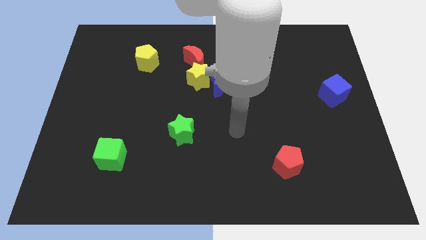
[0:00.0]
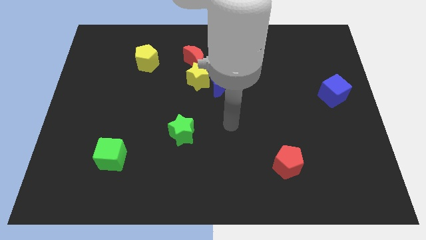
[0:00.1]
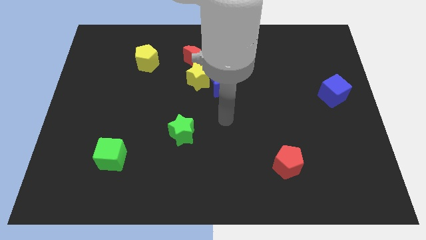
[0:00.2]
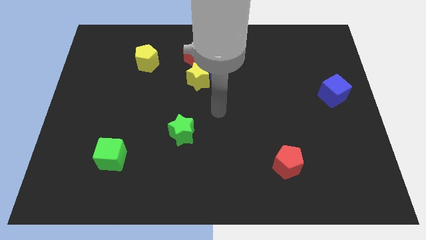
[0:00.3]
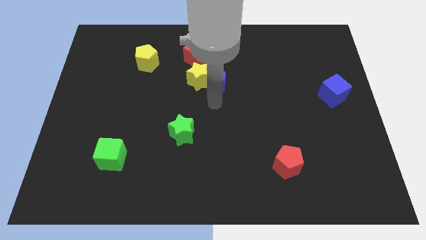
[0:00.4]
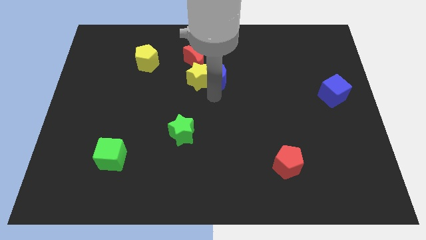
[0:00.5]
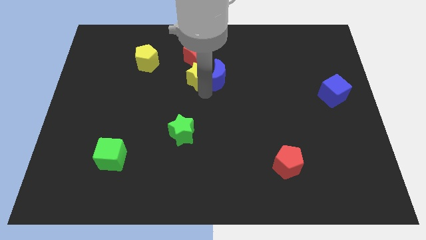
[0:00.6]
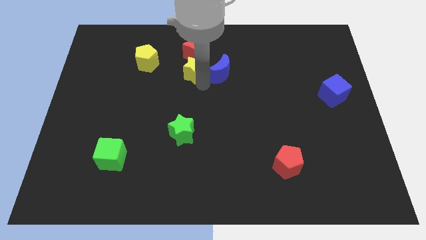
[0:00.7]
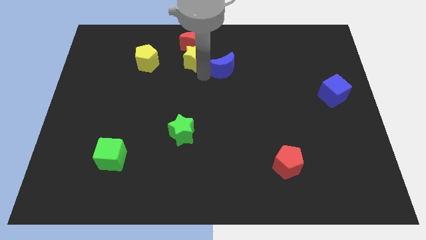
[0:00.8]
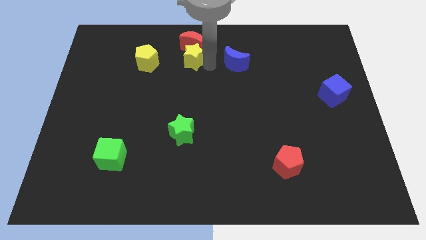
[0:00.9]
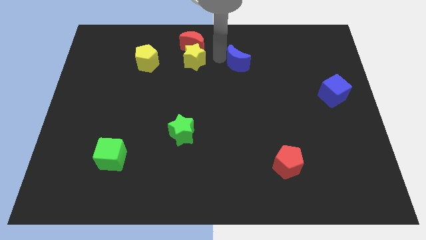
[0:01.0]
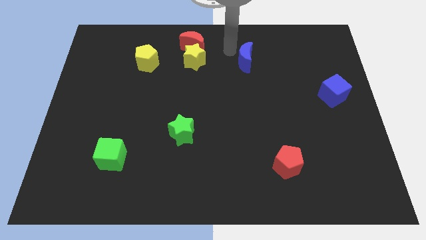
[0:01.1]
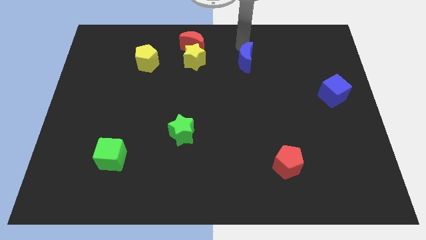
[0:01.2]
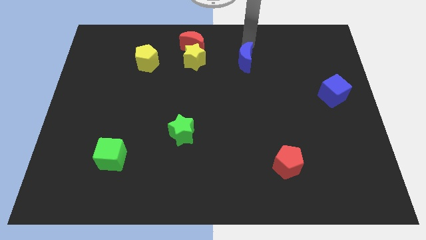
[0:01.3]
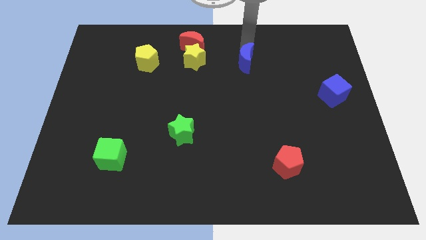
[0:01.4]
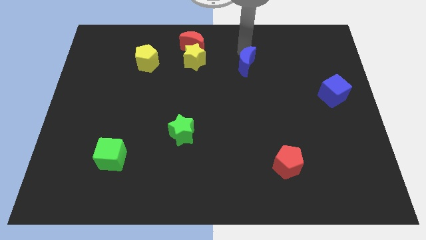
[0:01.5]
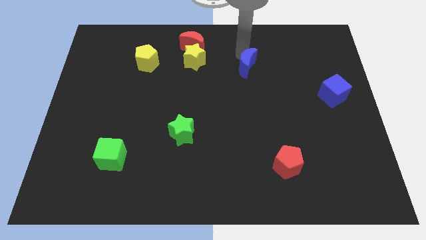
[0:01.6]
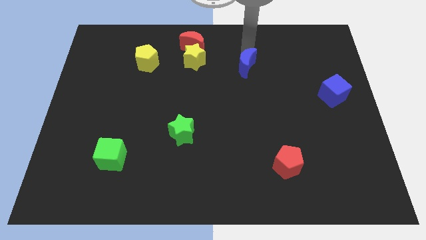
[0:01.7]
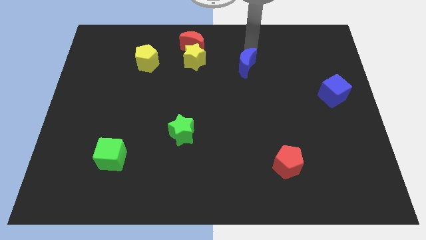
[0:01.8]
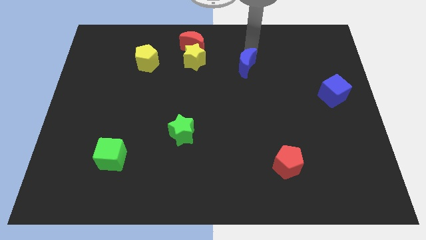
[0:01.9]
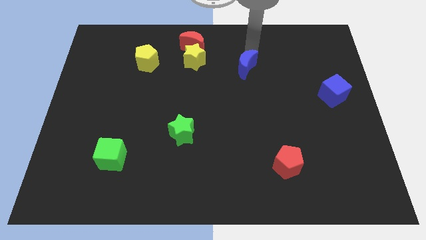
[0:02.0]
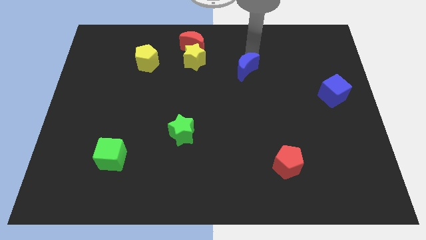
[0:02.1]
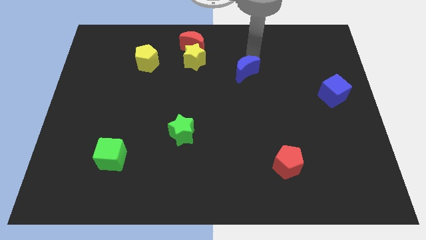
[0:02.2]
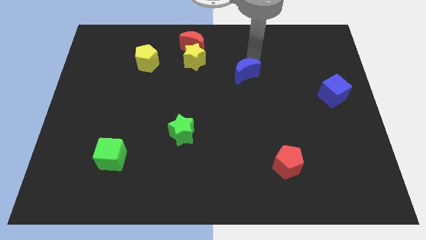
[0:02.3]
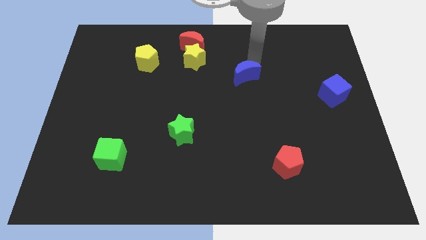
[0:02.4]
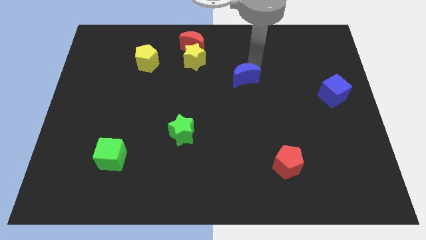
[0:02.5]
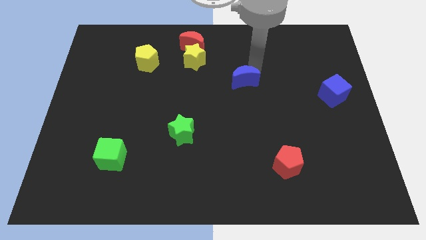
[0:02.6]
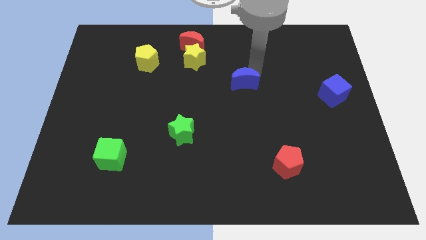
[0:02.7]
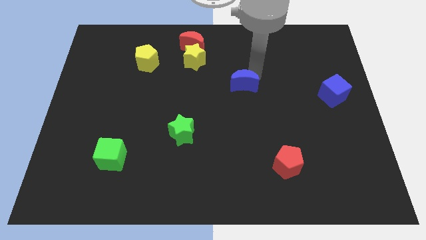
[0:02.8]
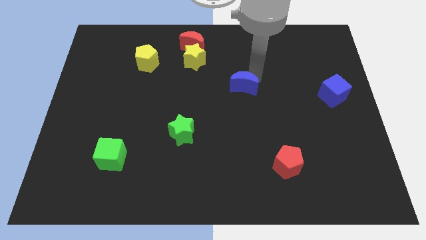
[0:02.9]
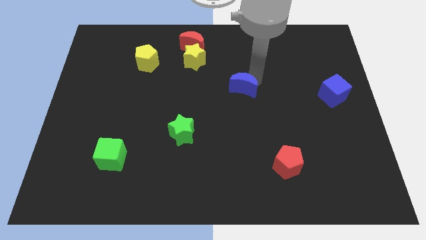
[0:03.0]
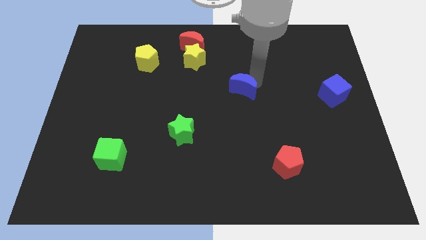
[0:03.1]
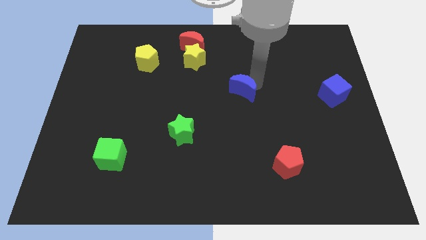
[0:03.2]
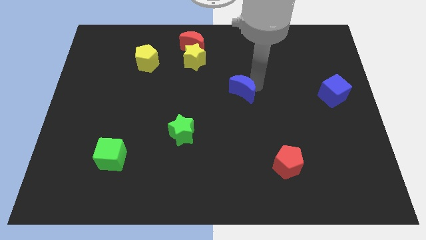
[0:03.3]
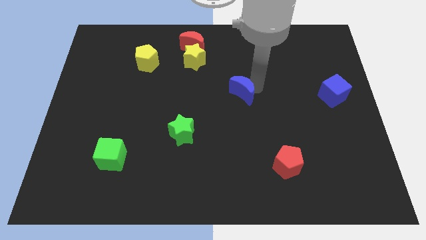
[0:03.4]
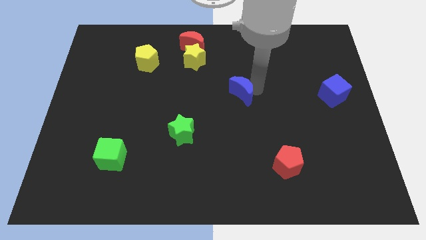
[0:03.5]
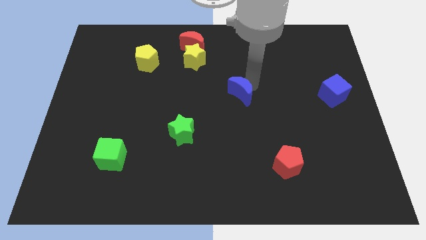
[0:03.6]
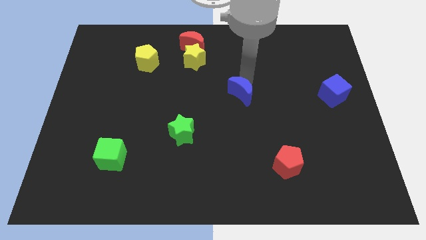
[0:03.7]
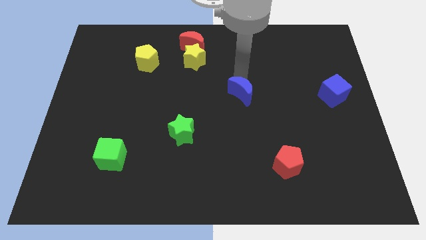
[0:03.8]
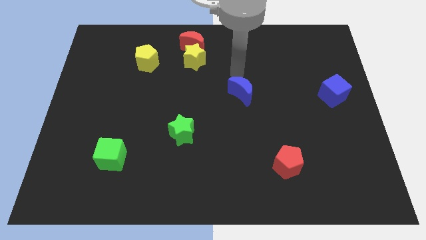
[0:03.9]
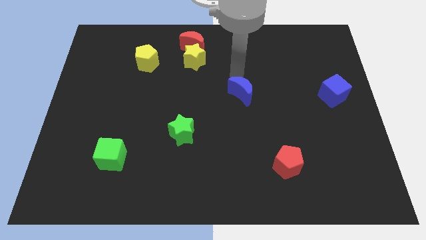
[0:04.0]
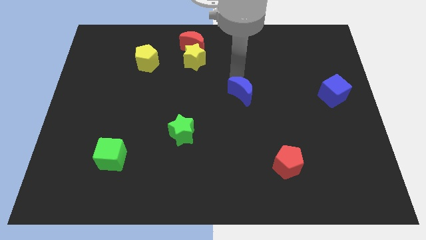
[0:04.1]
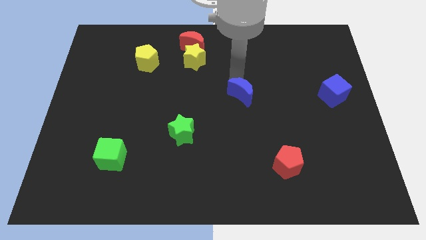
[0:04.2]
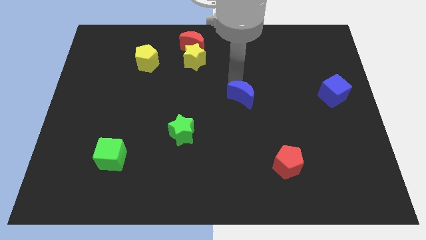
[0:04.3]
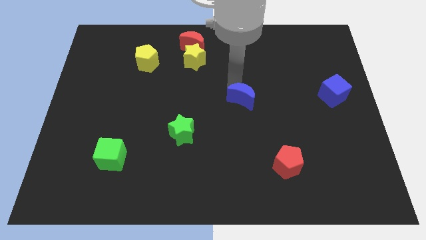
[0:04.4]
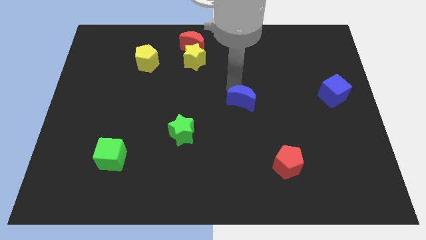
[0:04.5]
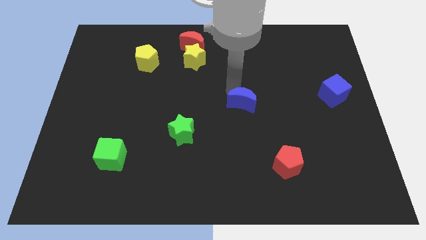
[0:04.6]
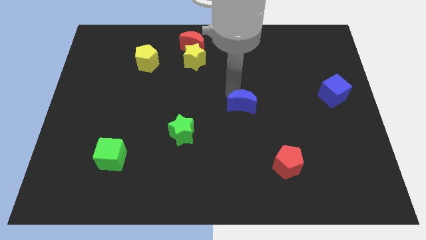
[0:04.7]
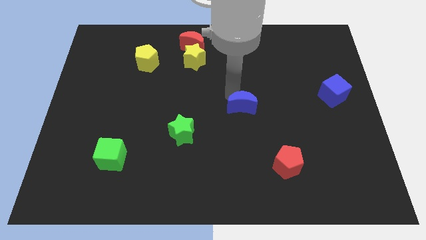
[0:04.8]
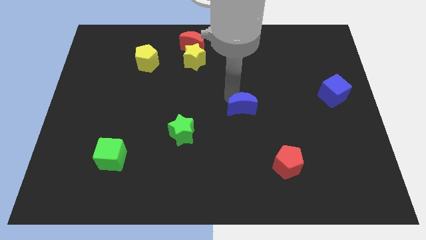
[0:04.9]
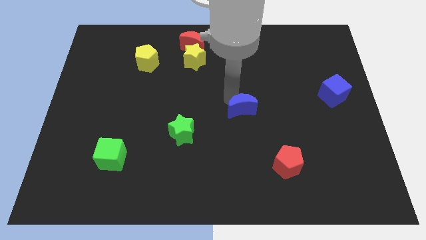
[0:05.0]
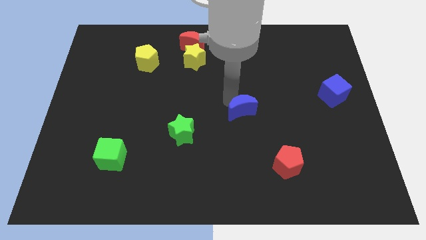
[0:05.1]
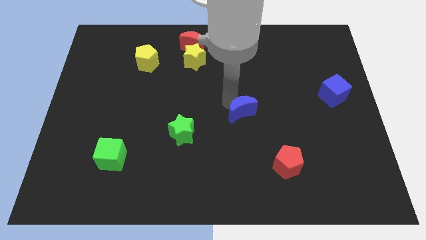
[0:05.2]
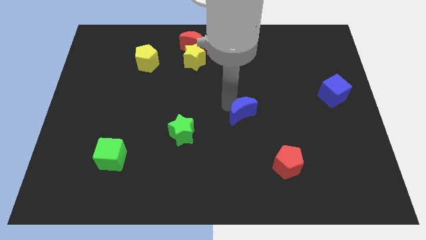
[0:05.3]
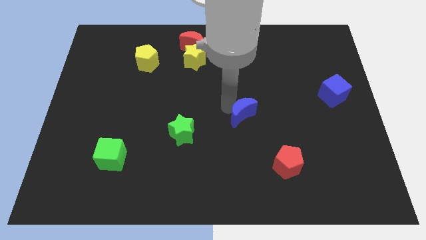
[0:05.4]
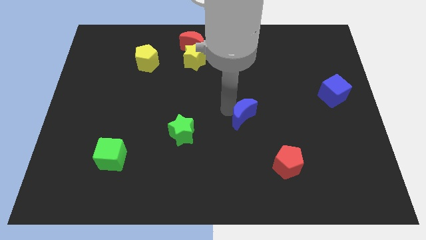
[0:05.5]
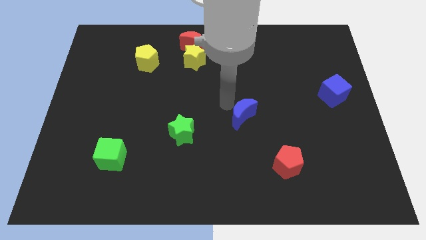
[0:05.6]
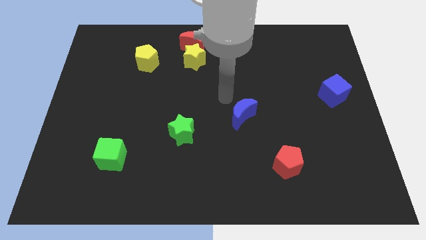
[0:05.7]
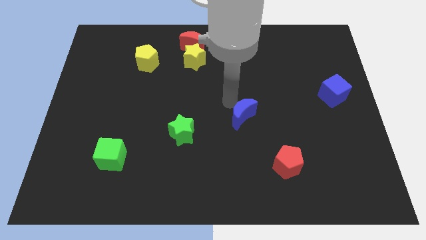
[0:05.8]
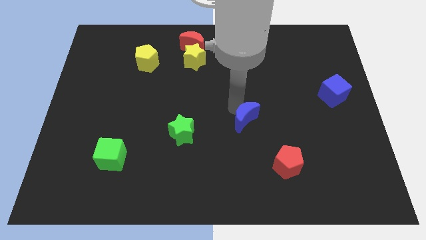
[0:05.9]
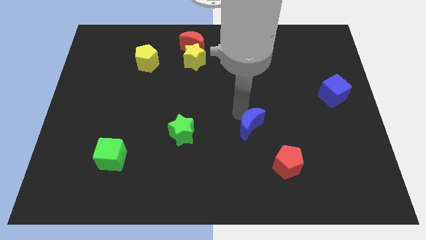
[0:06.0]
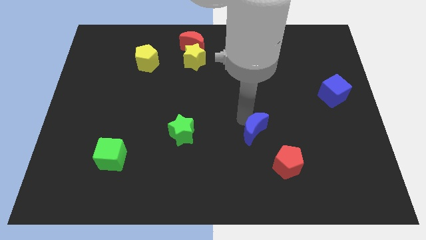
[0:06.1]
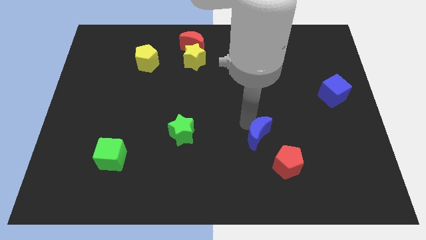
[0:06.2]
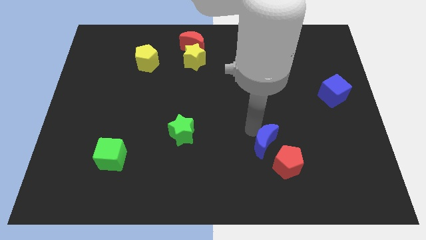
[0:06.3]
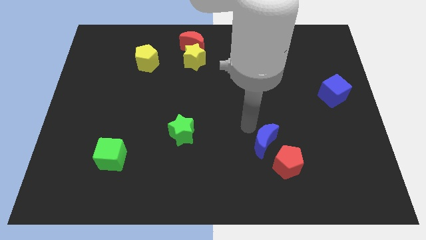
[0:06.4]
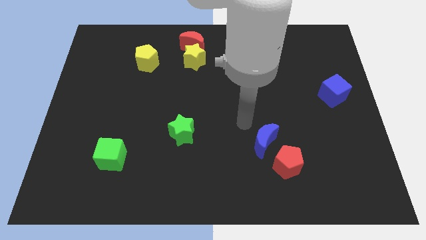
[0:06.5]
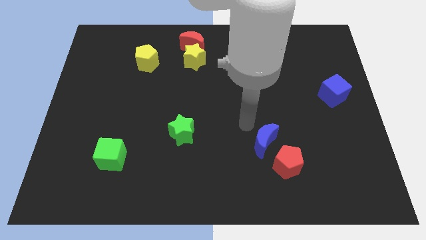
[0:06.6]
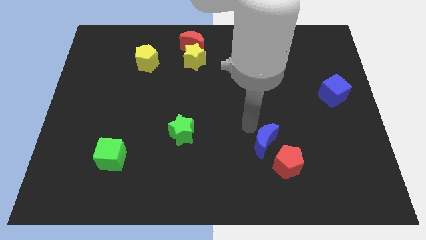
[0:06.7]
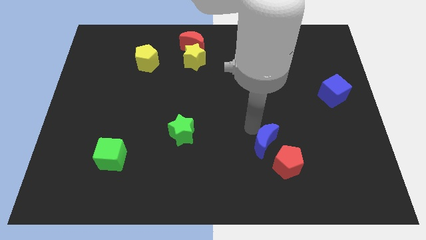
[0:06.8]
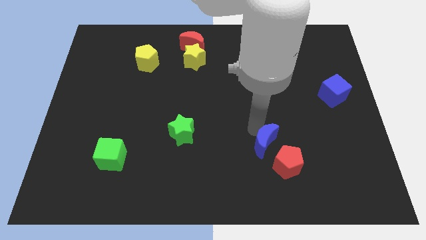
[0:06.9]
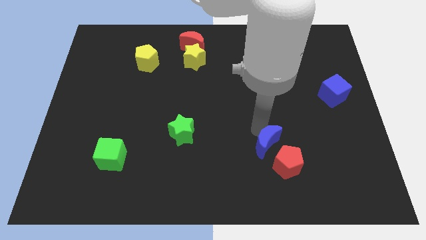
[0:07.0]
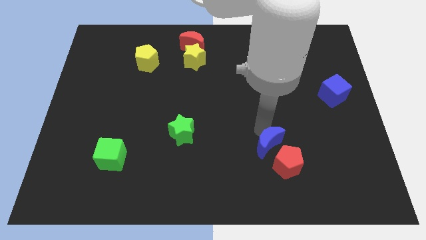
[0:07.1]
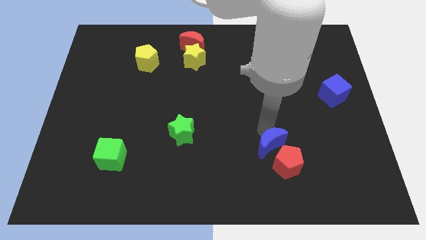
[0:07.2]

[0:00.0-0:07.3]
push the blue moon towards the red pentagon

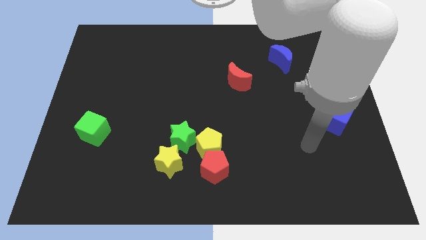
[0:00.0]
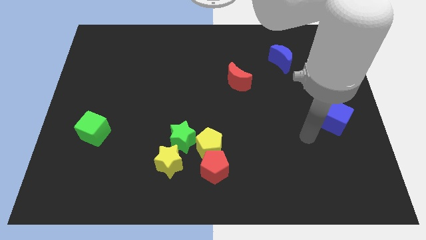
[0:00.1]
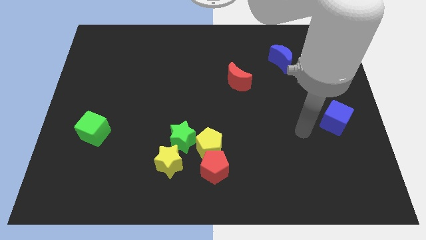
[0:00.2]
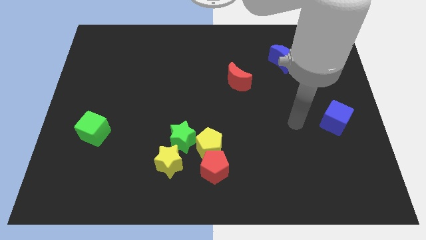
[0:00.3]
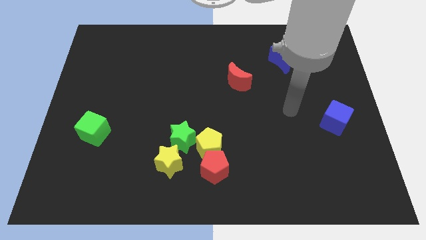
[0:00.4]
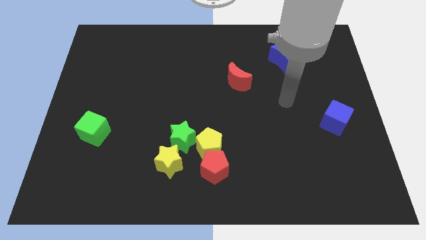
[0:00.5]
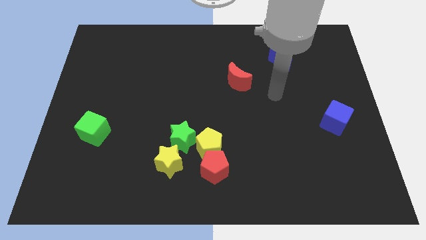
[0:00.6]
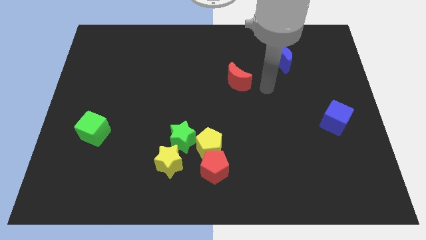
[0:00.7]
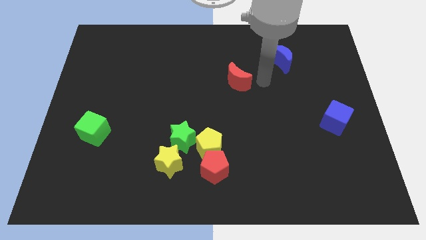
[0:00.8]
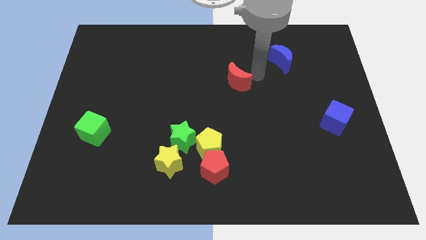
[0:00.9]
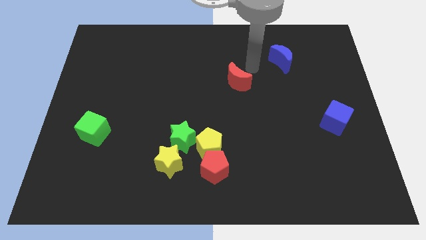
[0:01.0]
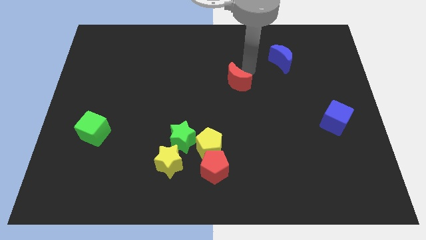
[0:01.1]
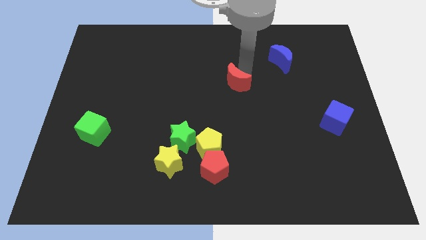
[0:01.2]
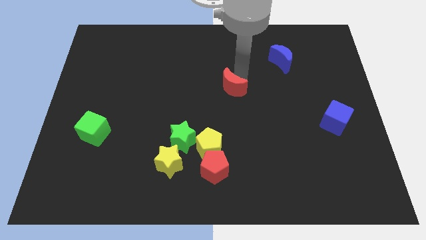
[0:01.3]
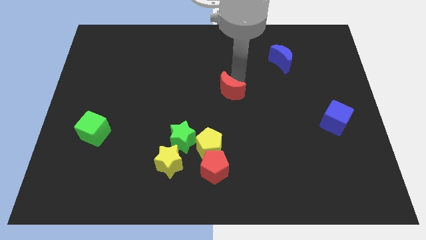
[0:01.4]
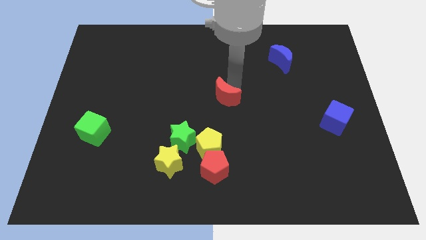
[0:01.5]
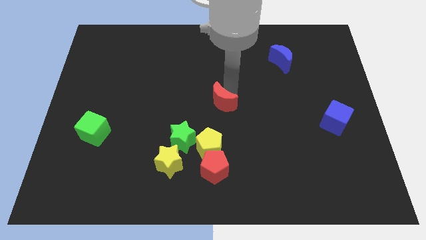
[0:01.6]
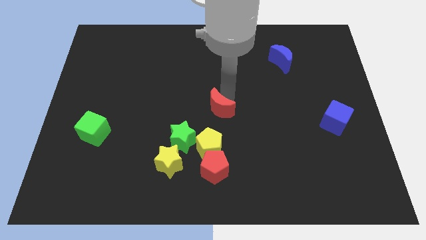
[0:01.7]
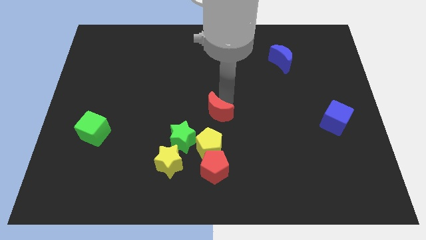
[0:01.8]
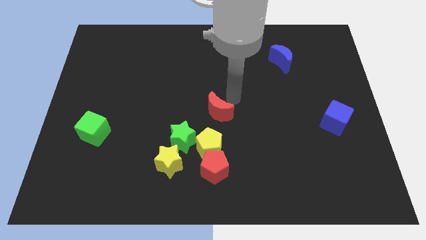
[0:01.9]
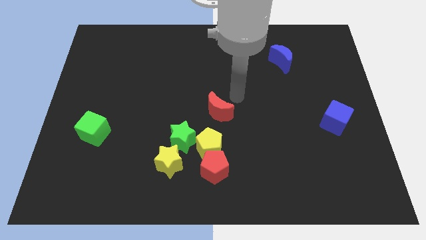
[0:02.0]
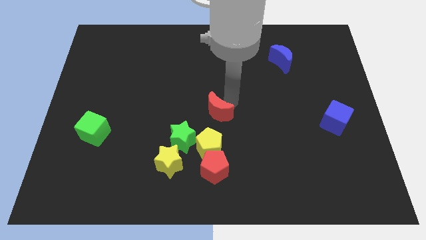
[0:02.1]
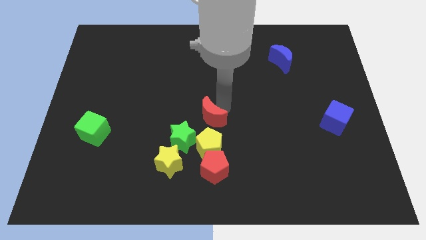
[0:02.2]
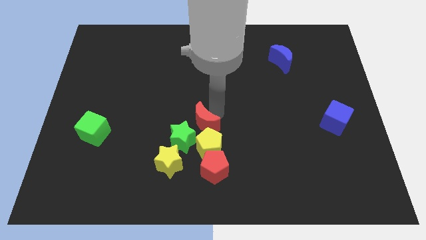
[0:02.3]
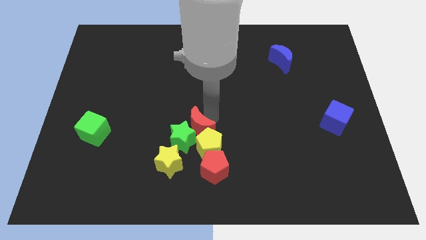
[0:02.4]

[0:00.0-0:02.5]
push the red moon next to the green star
